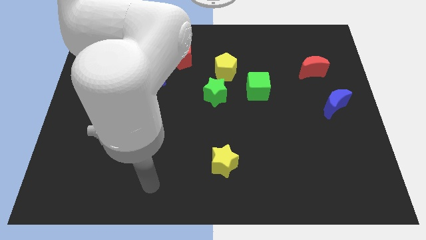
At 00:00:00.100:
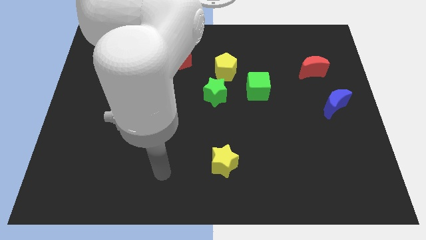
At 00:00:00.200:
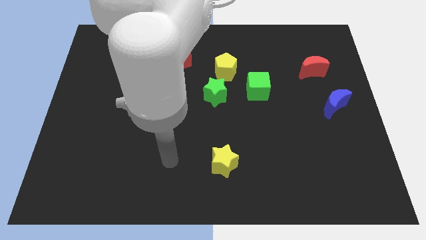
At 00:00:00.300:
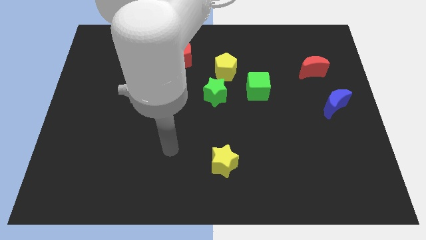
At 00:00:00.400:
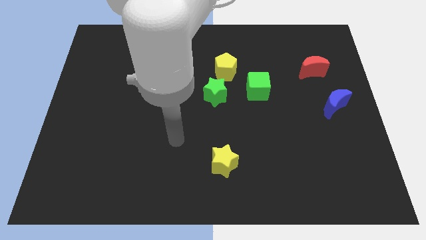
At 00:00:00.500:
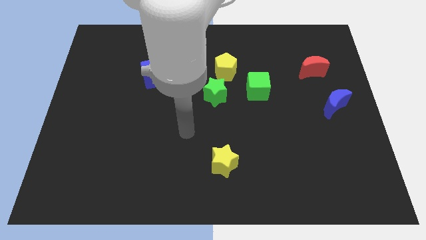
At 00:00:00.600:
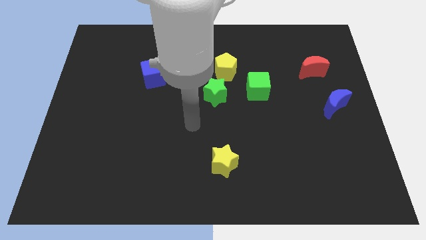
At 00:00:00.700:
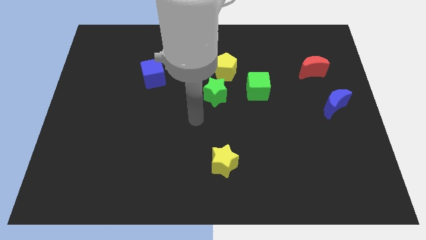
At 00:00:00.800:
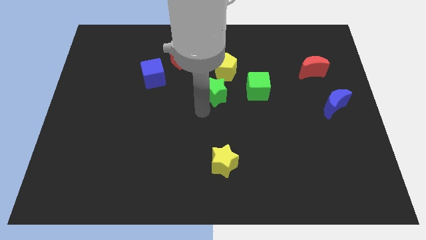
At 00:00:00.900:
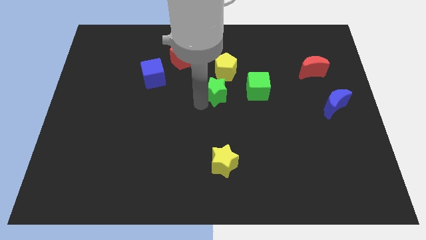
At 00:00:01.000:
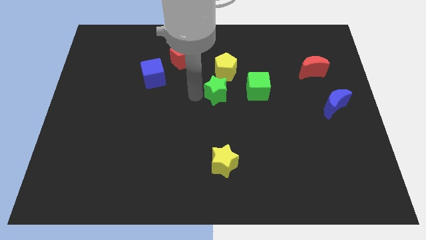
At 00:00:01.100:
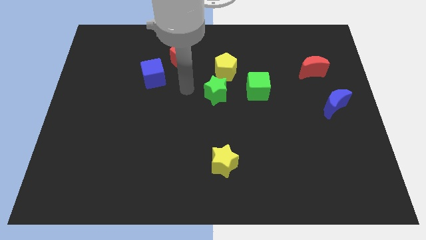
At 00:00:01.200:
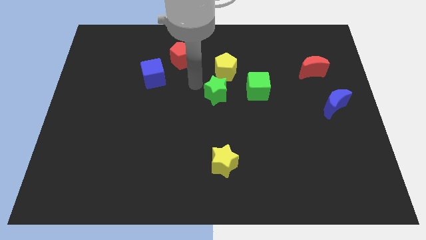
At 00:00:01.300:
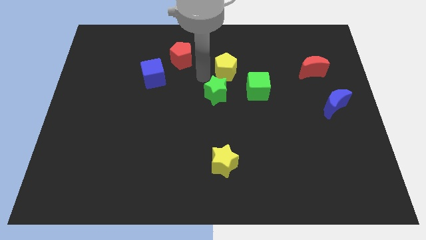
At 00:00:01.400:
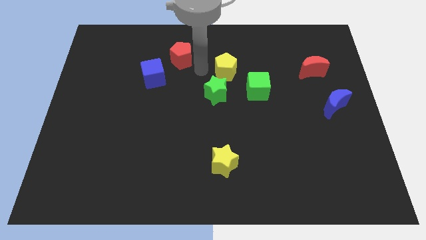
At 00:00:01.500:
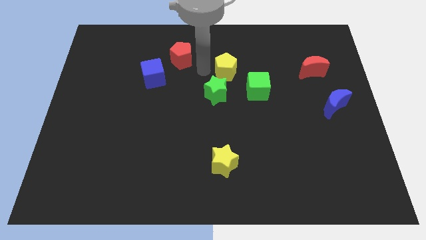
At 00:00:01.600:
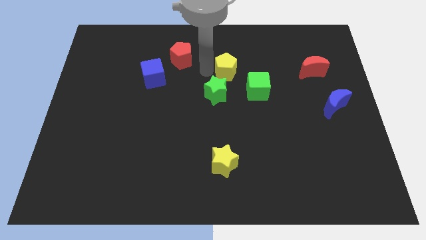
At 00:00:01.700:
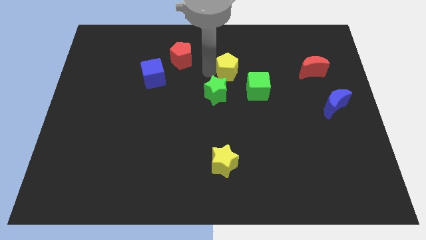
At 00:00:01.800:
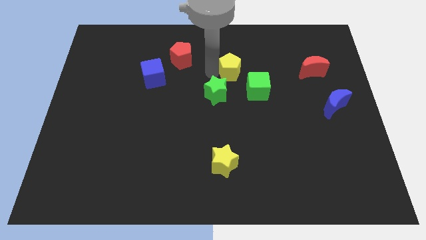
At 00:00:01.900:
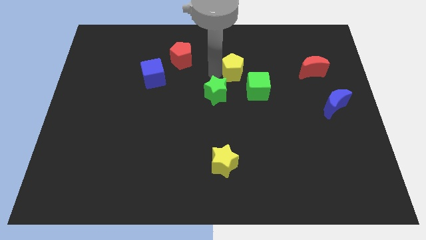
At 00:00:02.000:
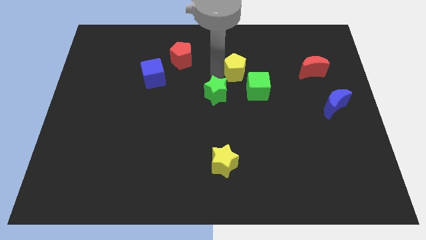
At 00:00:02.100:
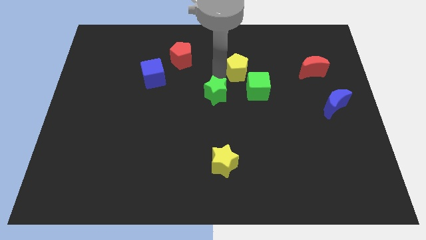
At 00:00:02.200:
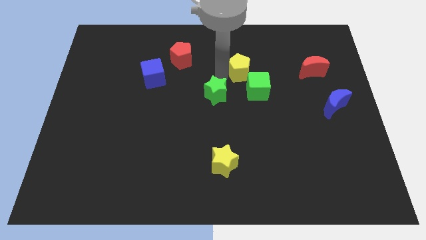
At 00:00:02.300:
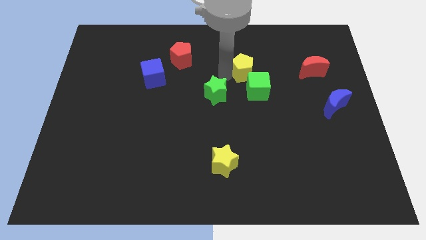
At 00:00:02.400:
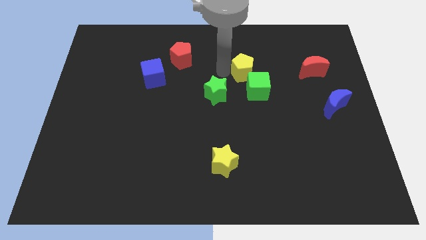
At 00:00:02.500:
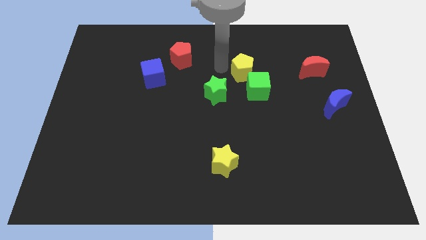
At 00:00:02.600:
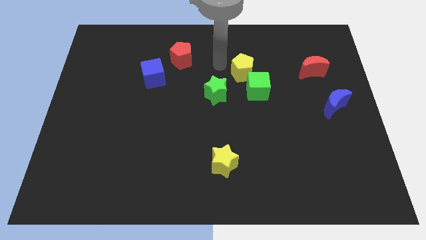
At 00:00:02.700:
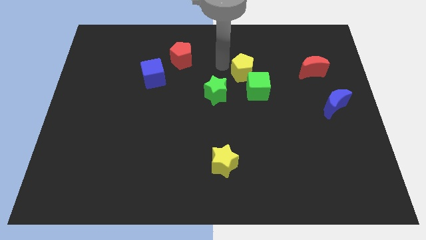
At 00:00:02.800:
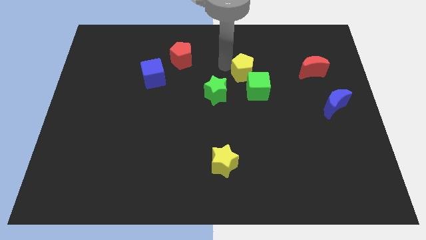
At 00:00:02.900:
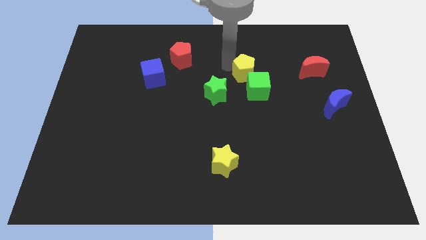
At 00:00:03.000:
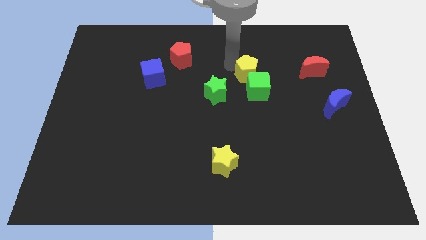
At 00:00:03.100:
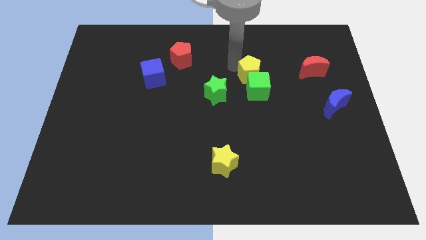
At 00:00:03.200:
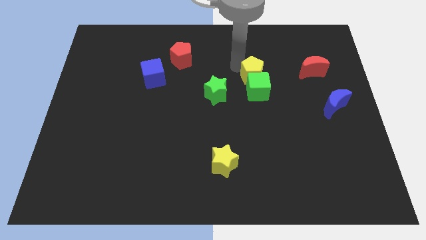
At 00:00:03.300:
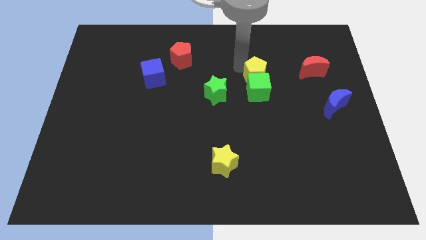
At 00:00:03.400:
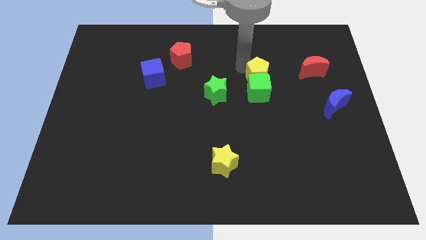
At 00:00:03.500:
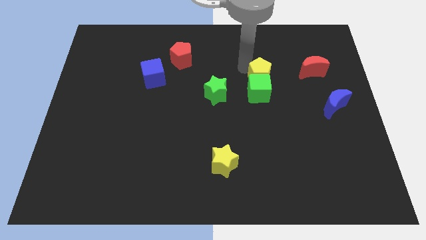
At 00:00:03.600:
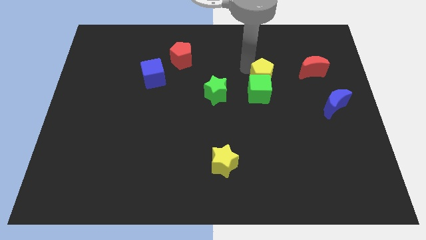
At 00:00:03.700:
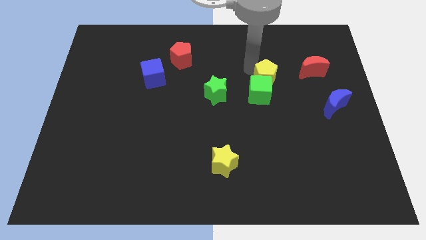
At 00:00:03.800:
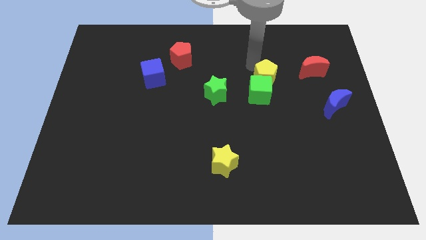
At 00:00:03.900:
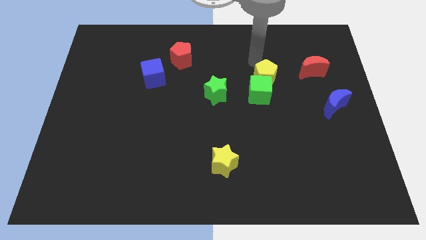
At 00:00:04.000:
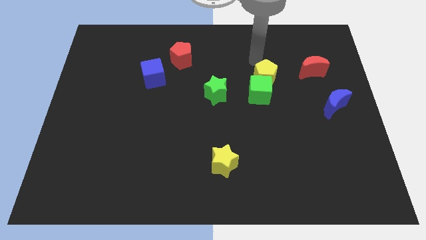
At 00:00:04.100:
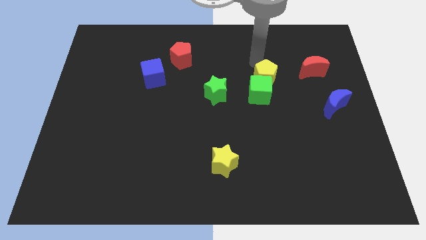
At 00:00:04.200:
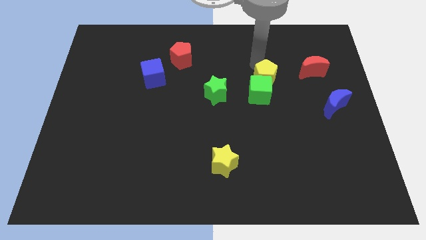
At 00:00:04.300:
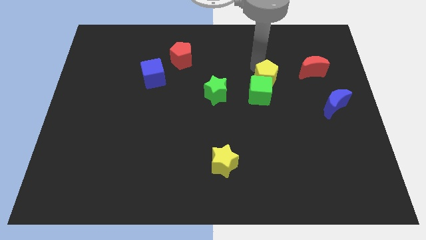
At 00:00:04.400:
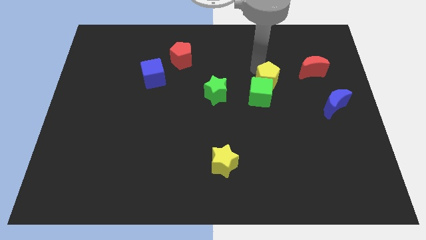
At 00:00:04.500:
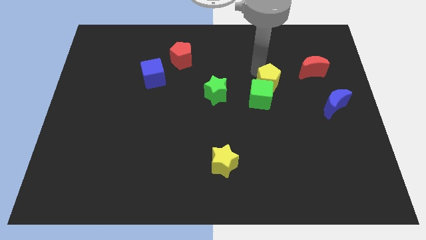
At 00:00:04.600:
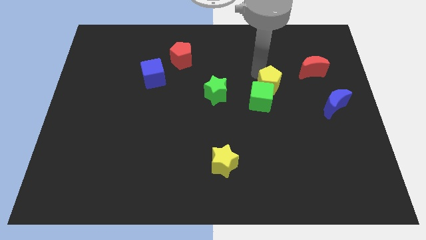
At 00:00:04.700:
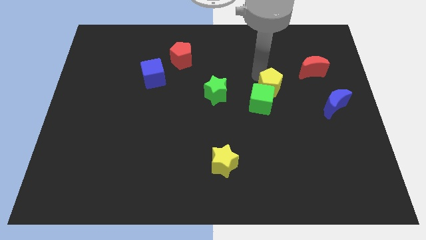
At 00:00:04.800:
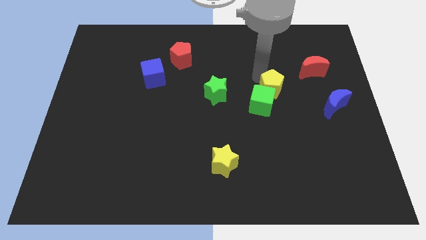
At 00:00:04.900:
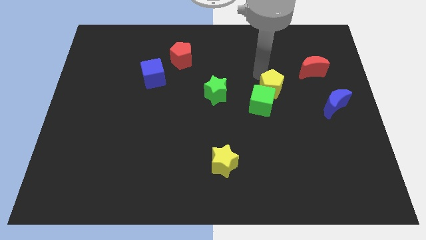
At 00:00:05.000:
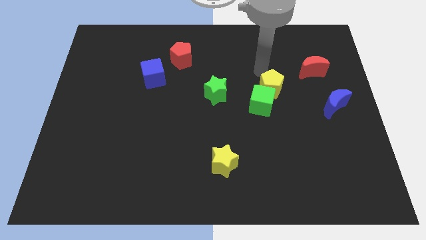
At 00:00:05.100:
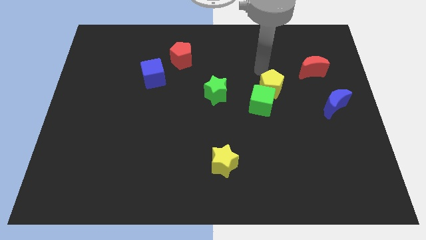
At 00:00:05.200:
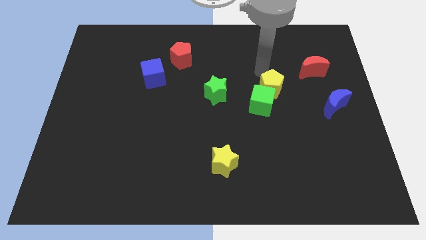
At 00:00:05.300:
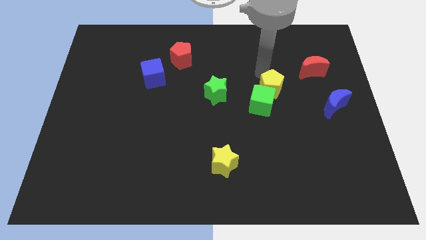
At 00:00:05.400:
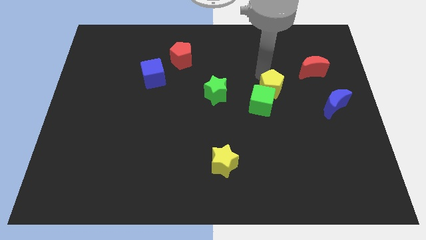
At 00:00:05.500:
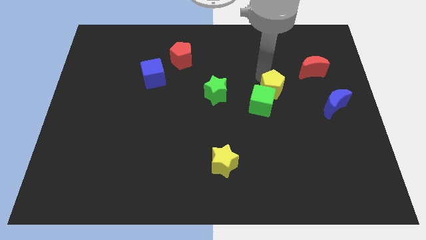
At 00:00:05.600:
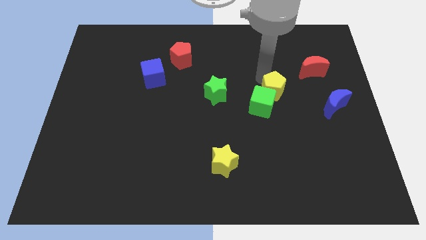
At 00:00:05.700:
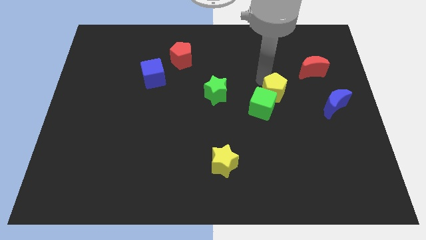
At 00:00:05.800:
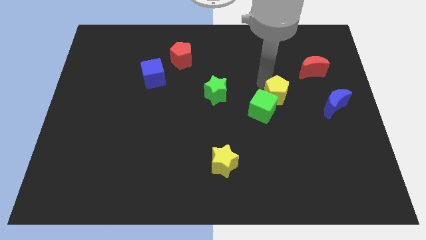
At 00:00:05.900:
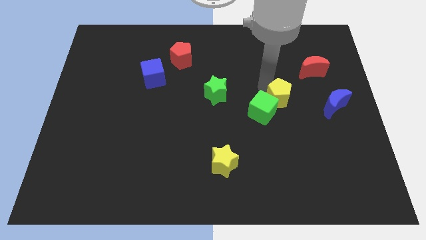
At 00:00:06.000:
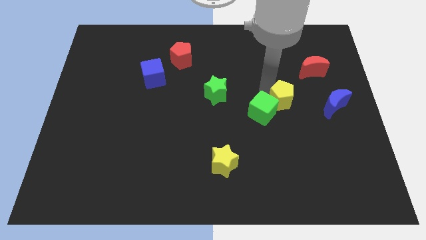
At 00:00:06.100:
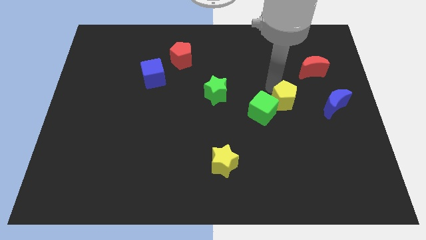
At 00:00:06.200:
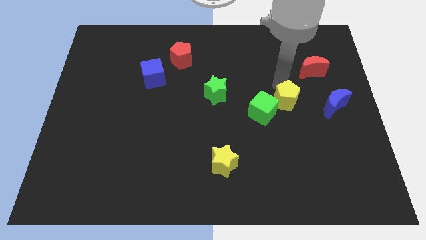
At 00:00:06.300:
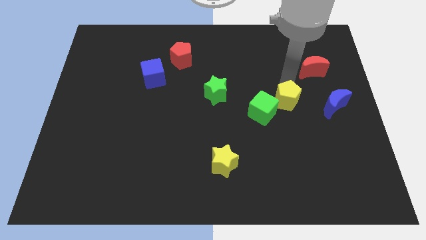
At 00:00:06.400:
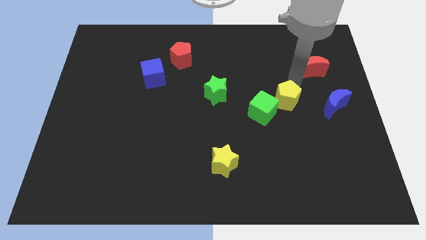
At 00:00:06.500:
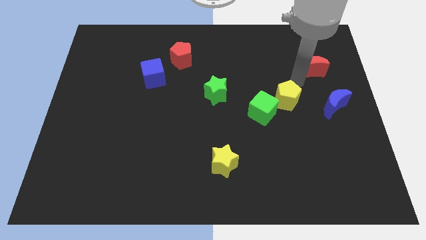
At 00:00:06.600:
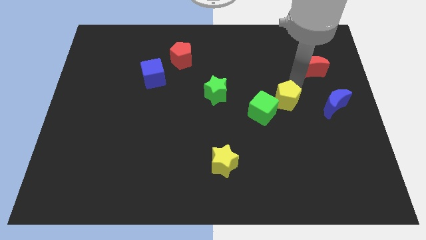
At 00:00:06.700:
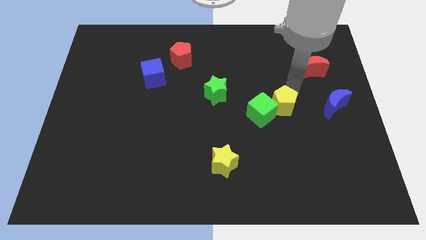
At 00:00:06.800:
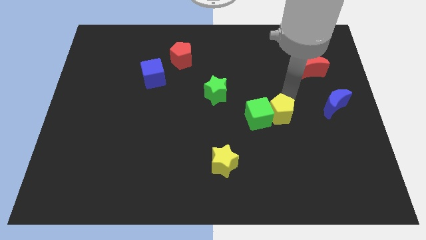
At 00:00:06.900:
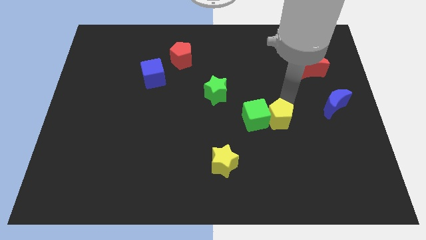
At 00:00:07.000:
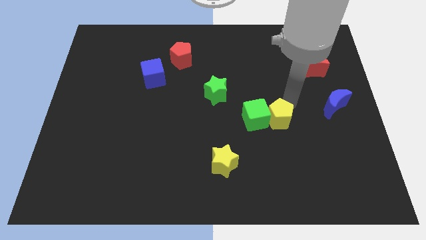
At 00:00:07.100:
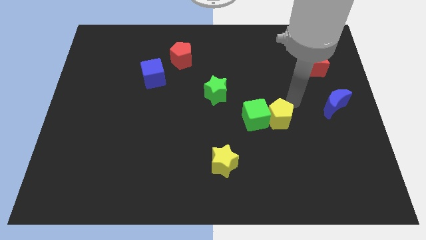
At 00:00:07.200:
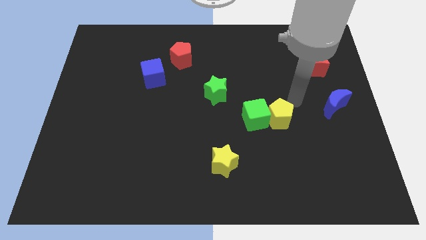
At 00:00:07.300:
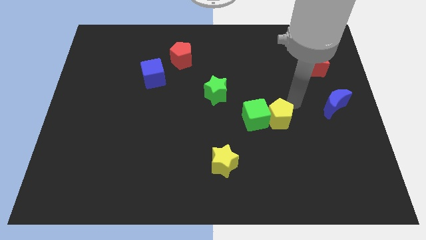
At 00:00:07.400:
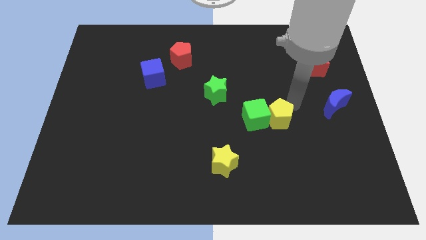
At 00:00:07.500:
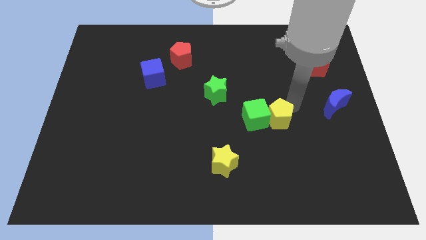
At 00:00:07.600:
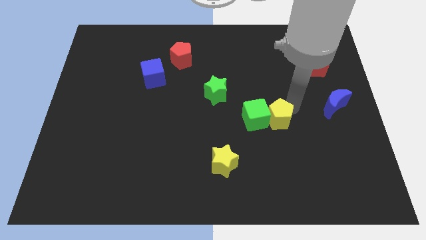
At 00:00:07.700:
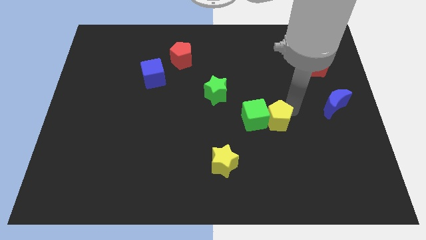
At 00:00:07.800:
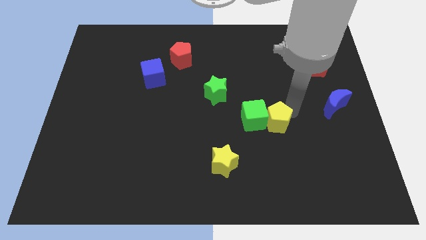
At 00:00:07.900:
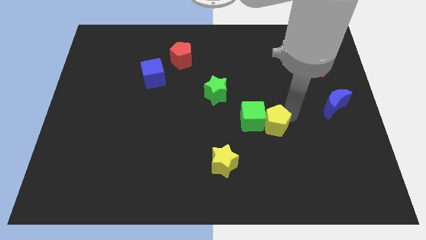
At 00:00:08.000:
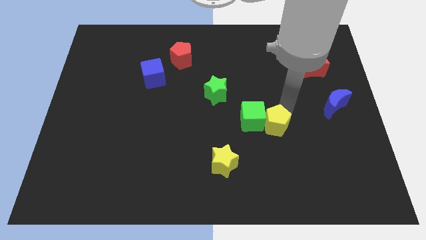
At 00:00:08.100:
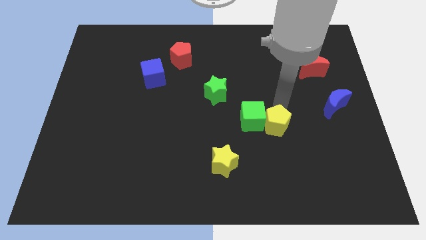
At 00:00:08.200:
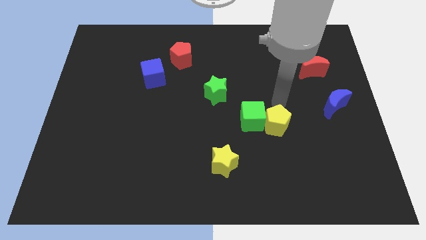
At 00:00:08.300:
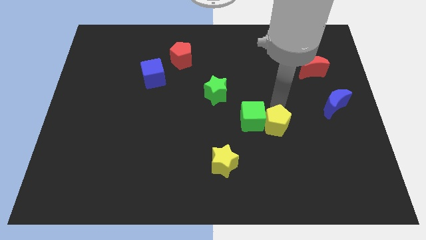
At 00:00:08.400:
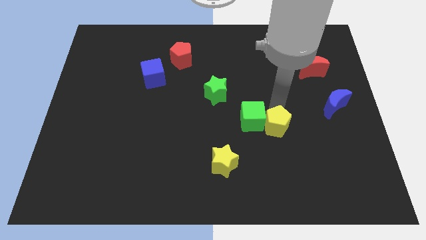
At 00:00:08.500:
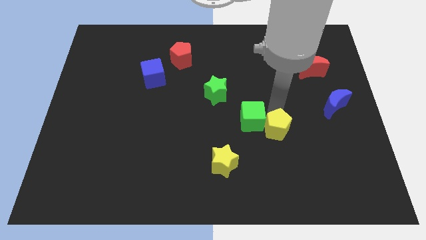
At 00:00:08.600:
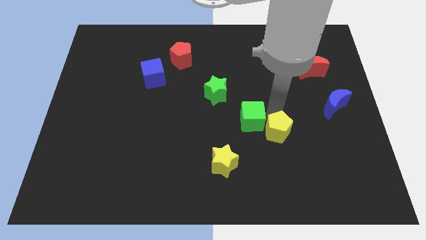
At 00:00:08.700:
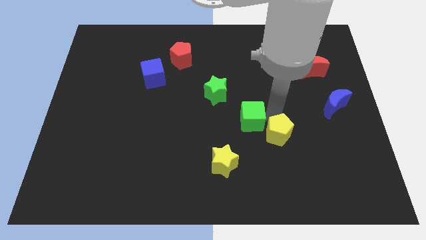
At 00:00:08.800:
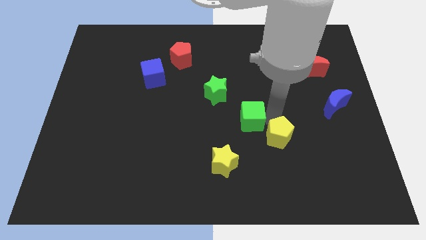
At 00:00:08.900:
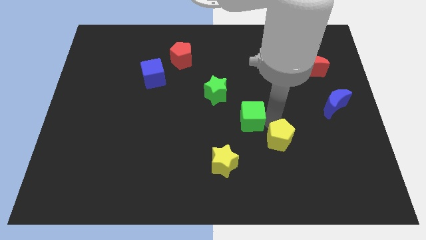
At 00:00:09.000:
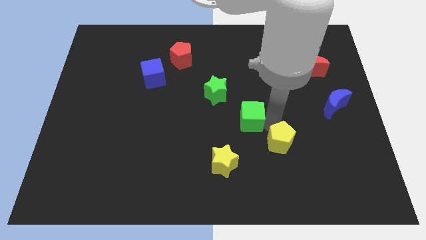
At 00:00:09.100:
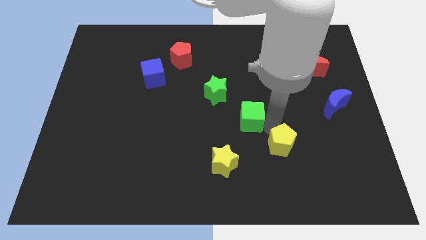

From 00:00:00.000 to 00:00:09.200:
push the yellow pentagon to the right side of the yellow star
